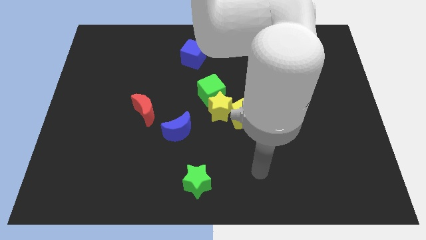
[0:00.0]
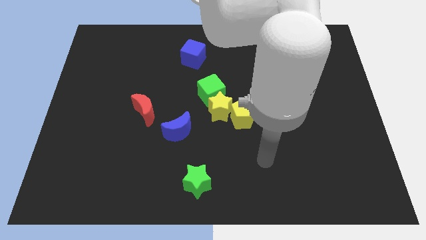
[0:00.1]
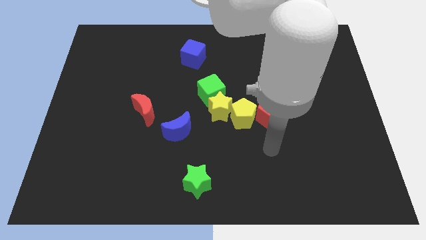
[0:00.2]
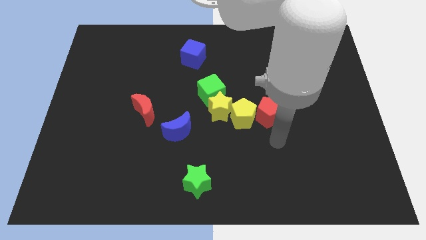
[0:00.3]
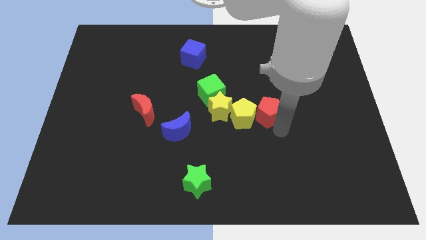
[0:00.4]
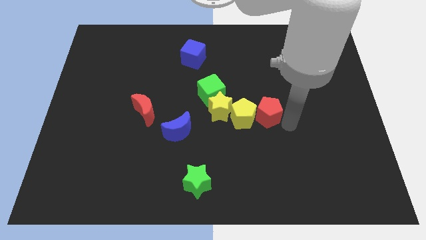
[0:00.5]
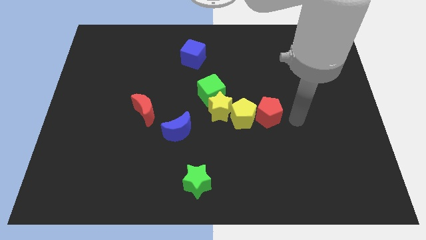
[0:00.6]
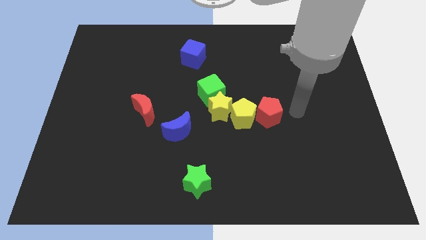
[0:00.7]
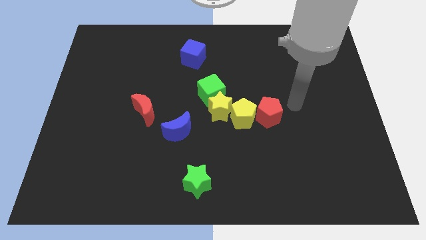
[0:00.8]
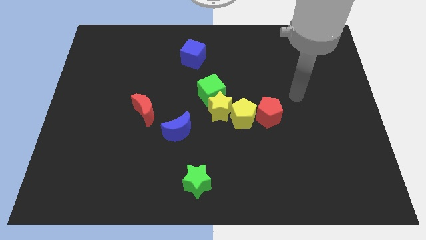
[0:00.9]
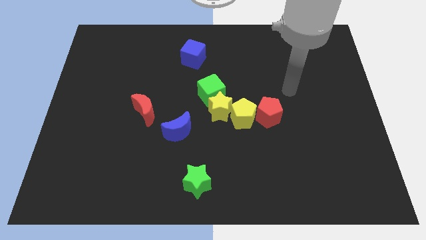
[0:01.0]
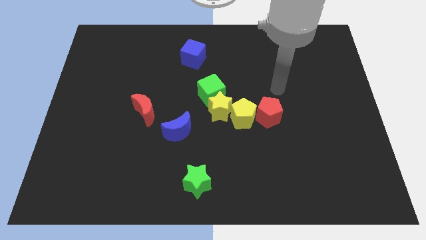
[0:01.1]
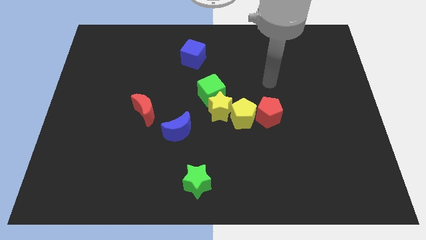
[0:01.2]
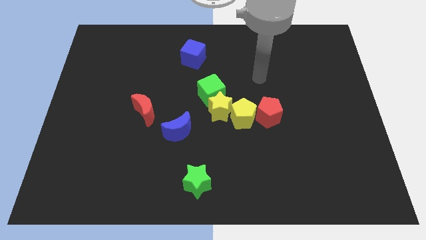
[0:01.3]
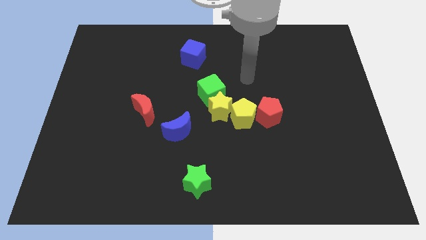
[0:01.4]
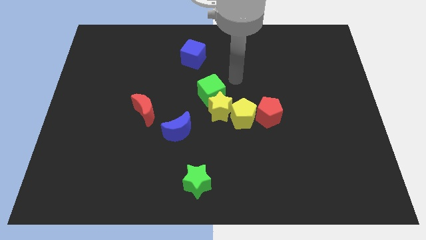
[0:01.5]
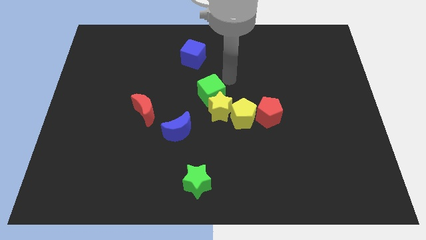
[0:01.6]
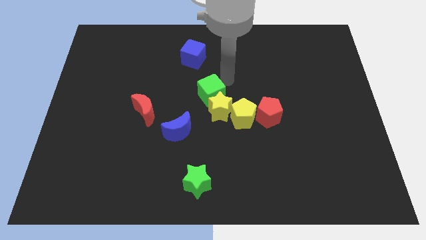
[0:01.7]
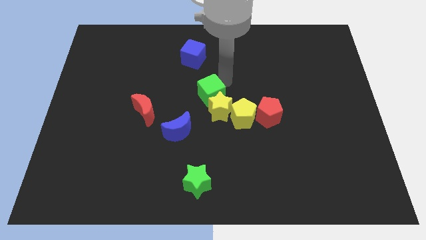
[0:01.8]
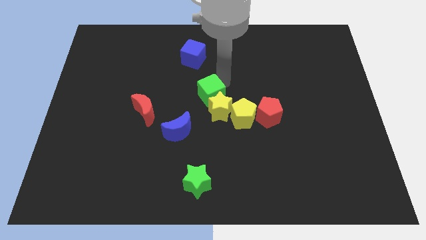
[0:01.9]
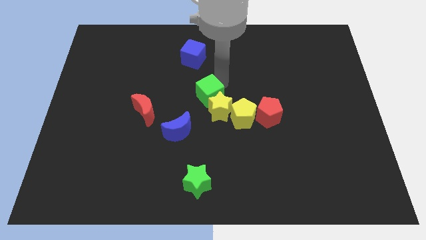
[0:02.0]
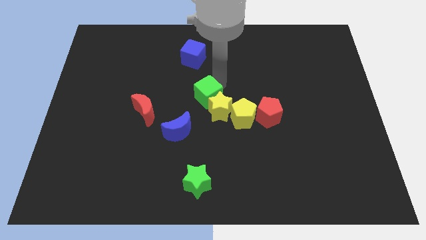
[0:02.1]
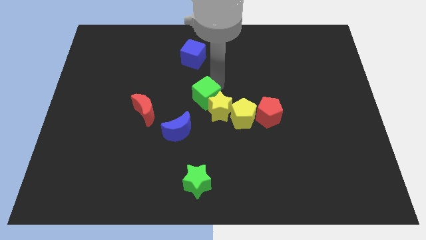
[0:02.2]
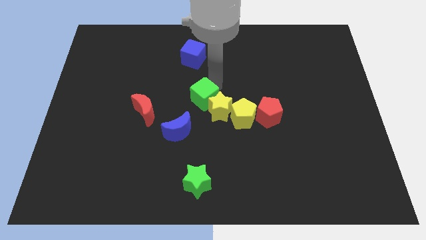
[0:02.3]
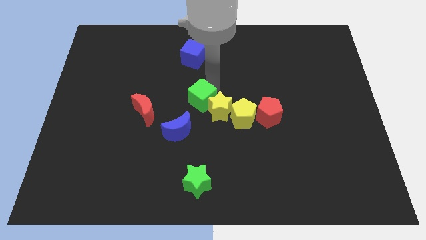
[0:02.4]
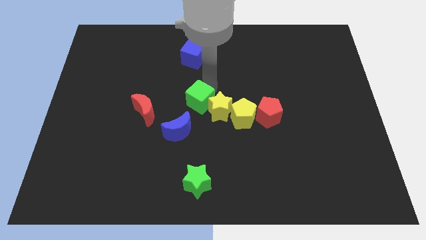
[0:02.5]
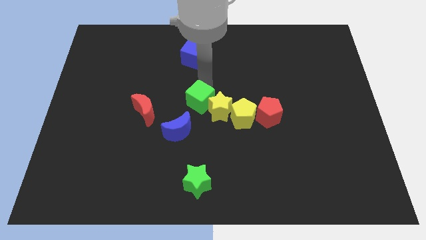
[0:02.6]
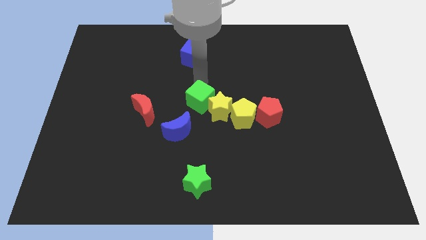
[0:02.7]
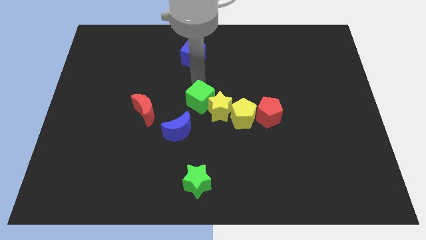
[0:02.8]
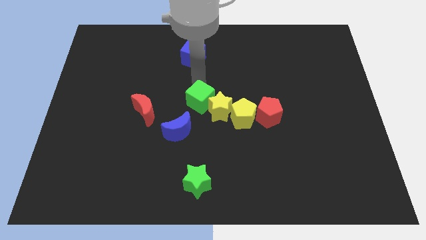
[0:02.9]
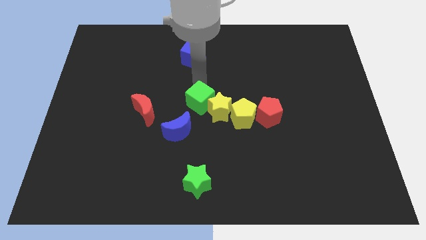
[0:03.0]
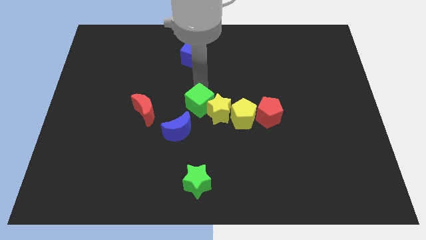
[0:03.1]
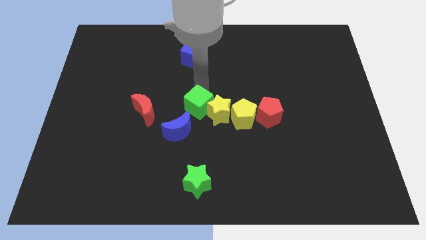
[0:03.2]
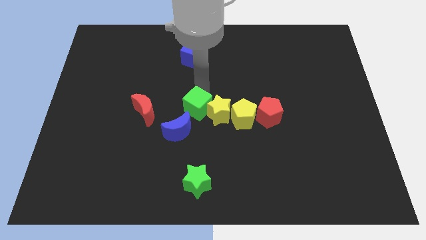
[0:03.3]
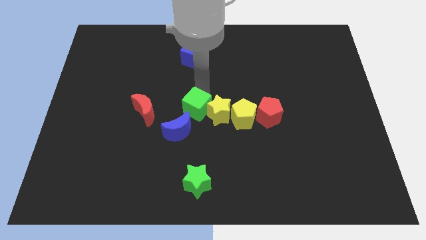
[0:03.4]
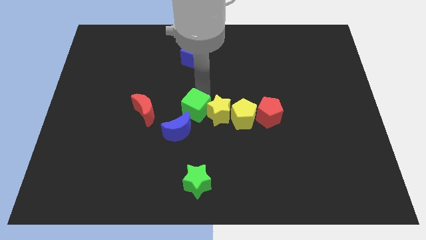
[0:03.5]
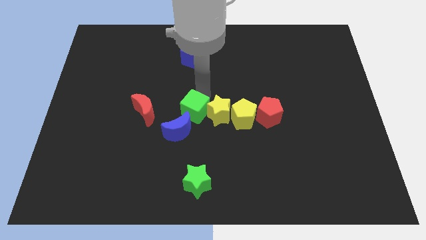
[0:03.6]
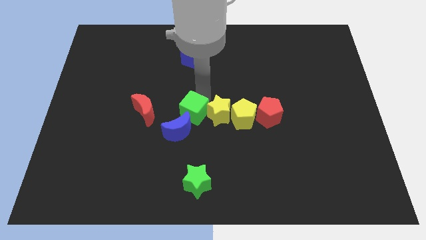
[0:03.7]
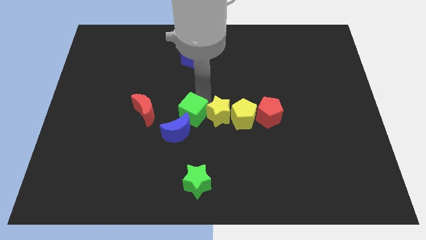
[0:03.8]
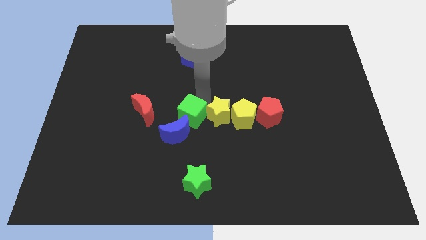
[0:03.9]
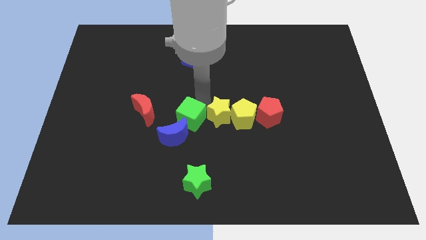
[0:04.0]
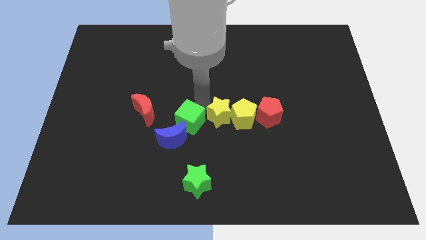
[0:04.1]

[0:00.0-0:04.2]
move the green cube down a little bit

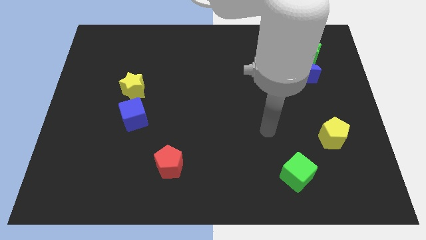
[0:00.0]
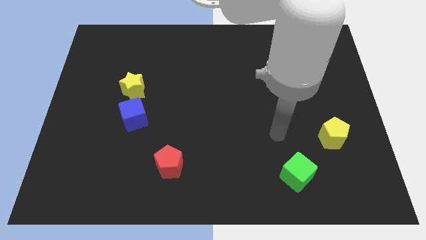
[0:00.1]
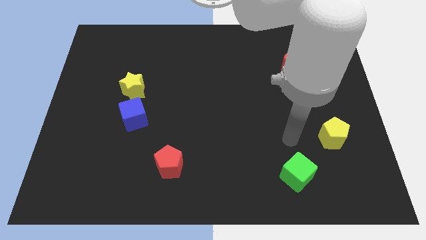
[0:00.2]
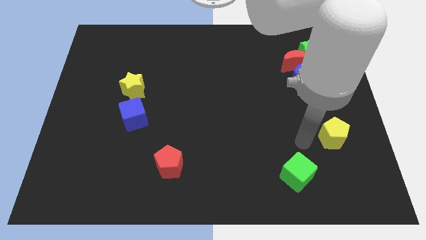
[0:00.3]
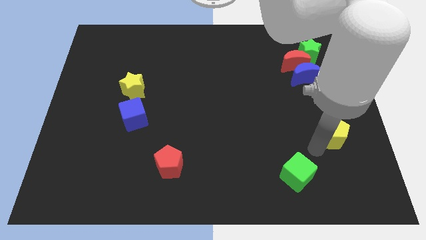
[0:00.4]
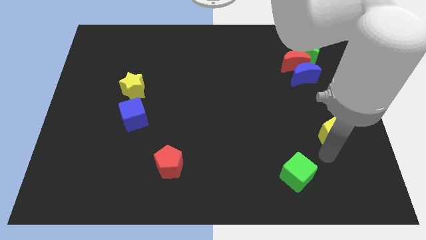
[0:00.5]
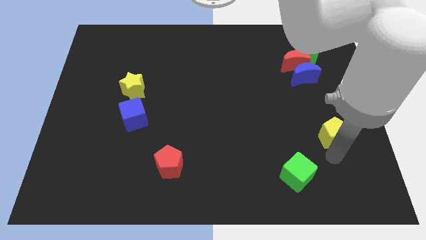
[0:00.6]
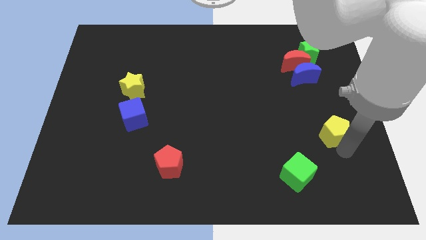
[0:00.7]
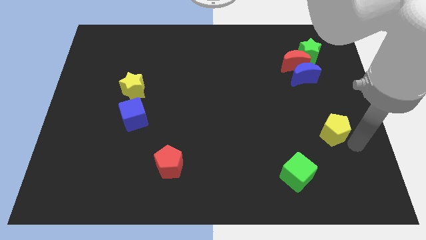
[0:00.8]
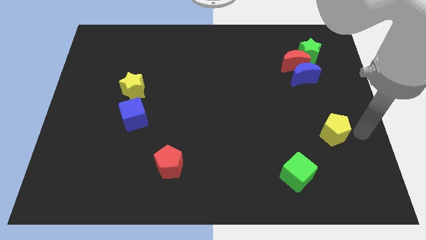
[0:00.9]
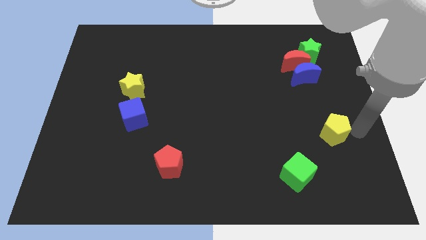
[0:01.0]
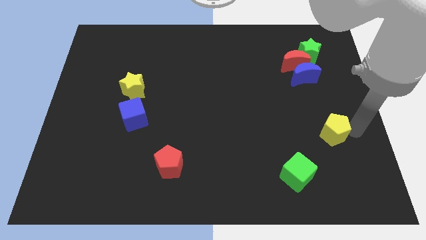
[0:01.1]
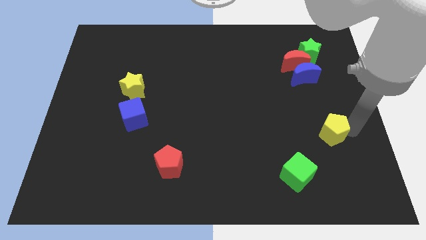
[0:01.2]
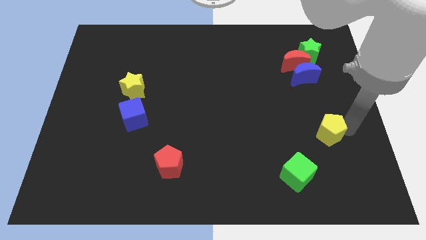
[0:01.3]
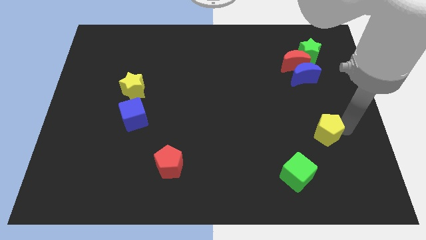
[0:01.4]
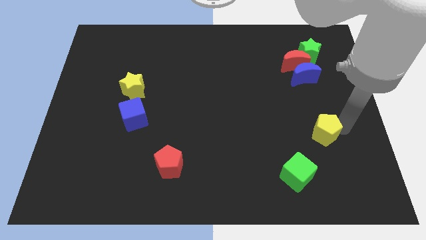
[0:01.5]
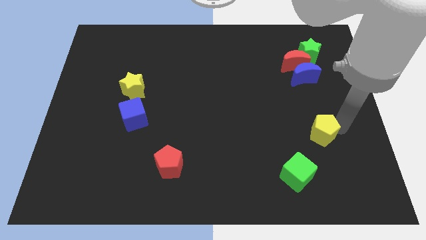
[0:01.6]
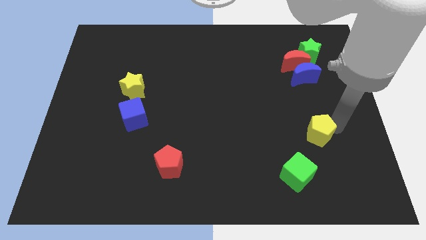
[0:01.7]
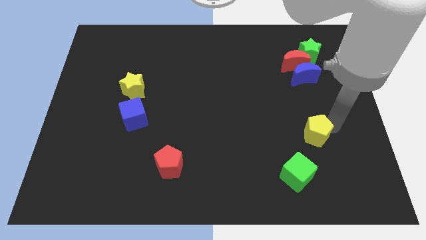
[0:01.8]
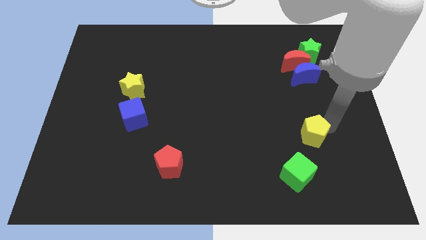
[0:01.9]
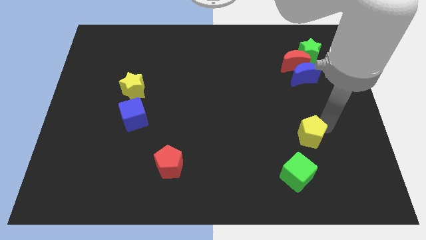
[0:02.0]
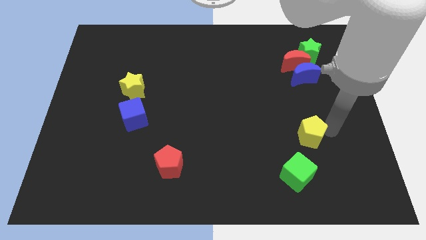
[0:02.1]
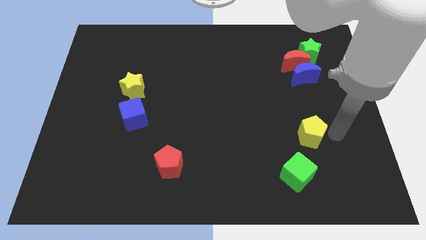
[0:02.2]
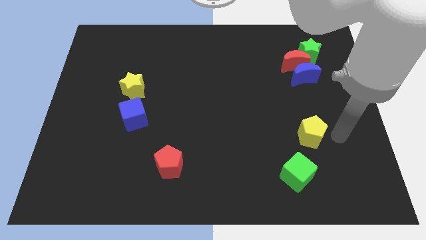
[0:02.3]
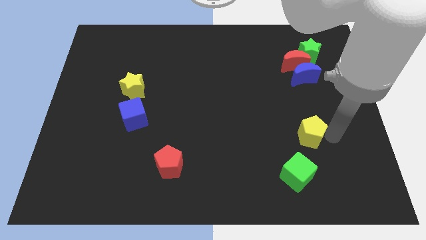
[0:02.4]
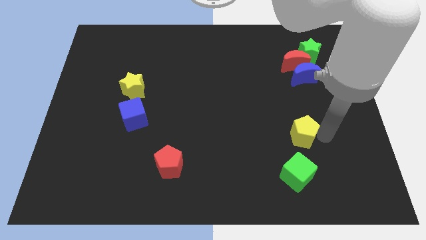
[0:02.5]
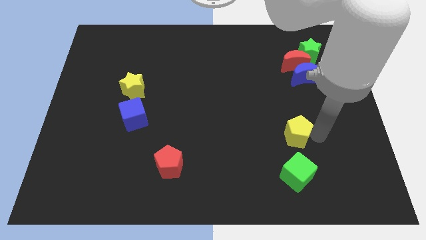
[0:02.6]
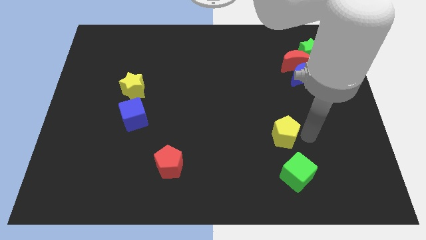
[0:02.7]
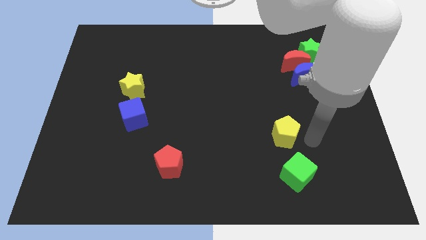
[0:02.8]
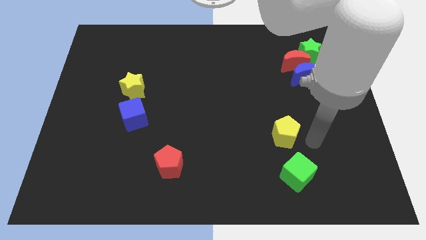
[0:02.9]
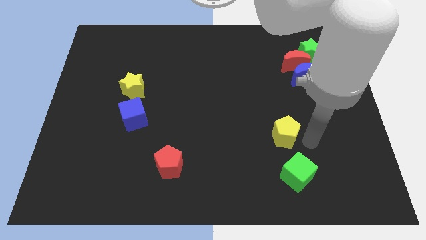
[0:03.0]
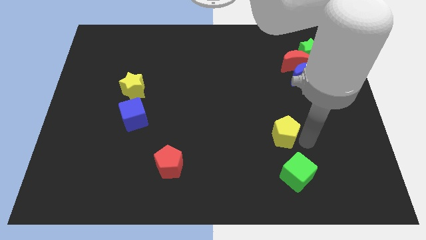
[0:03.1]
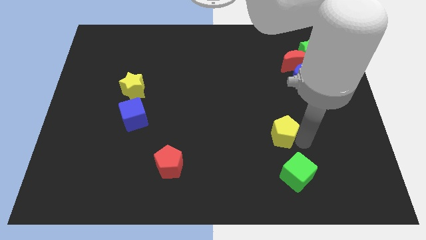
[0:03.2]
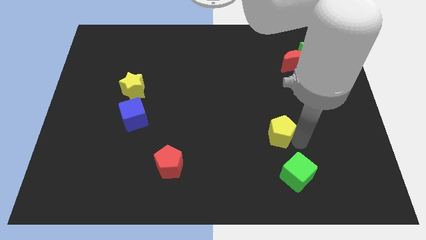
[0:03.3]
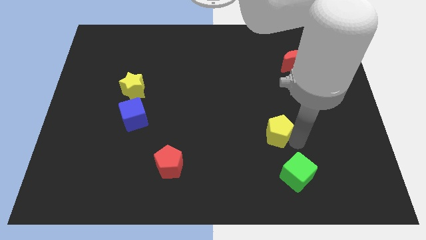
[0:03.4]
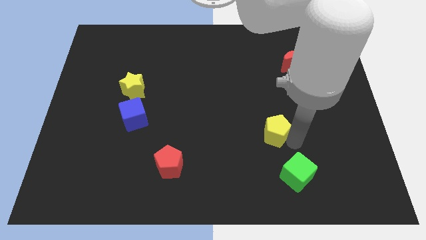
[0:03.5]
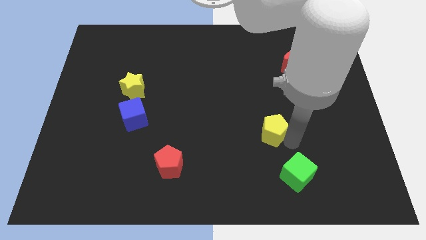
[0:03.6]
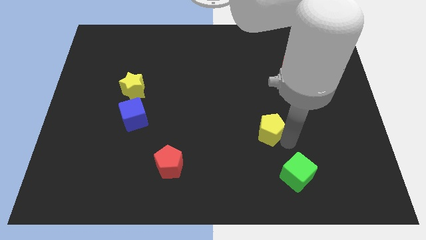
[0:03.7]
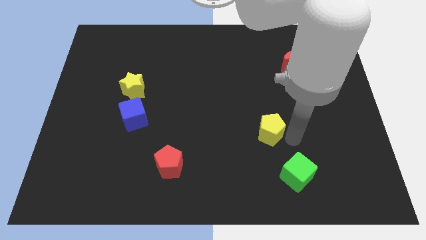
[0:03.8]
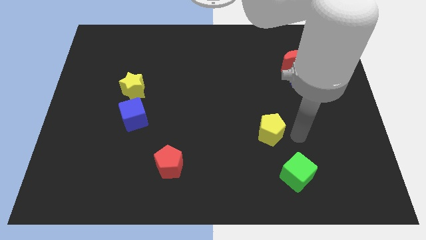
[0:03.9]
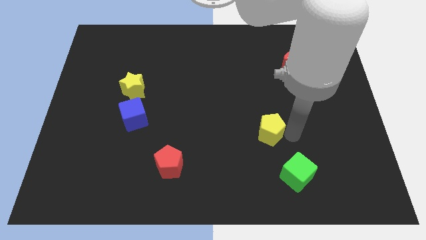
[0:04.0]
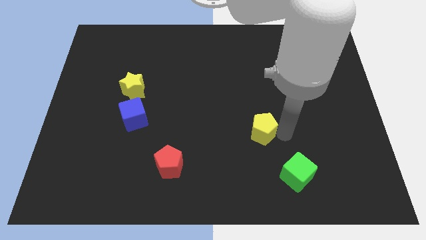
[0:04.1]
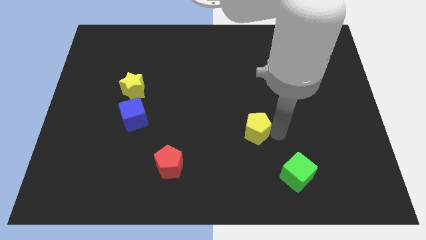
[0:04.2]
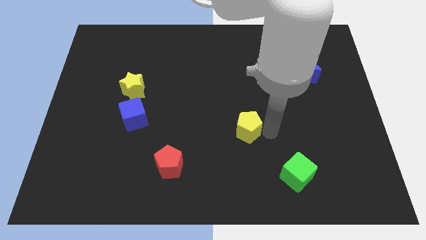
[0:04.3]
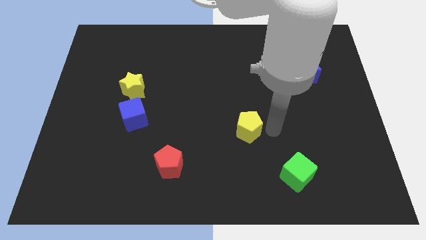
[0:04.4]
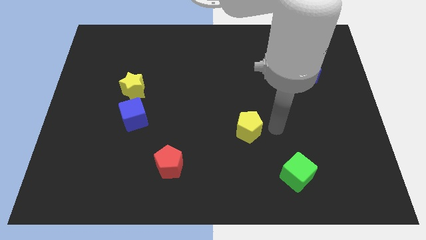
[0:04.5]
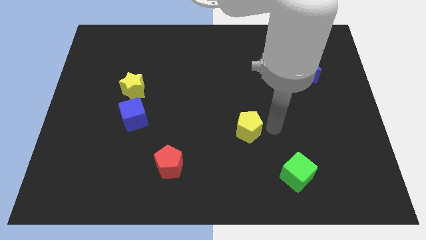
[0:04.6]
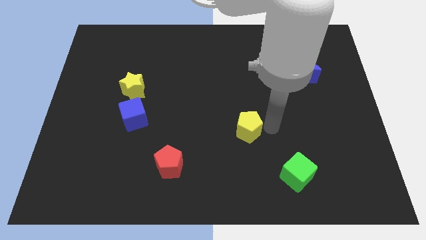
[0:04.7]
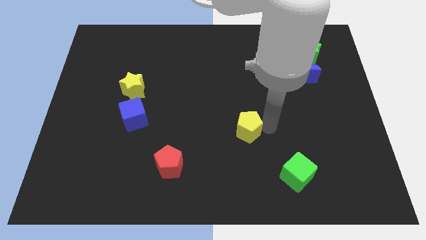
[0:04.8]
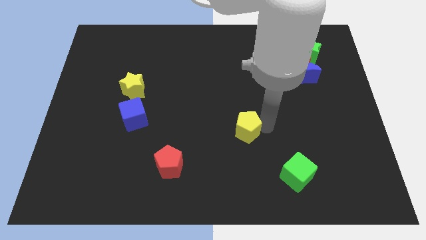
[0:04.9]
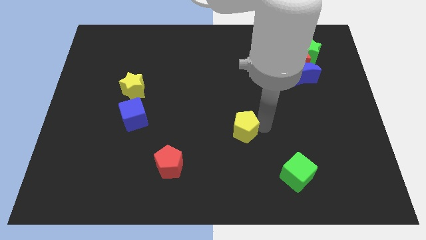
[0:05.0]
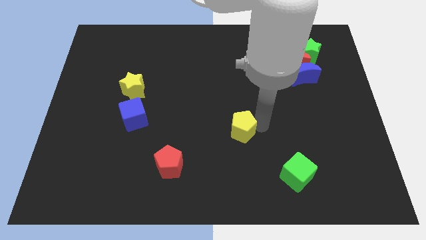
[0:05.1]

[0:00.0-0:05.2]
move the yellow pentagon to the left
